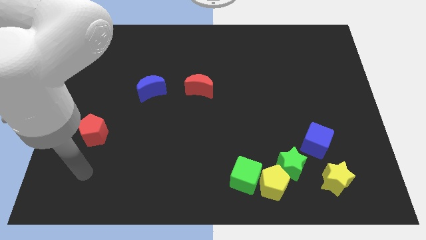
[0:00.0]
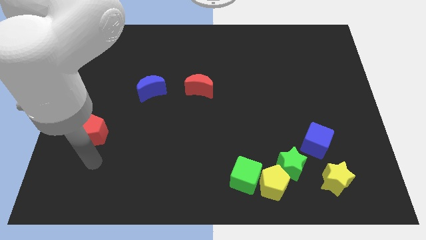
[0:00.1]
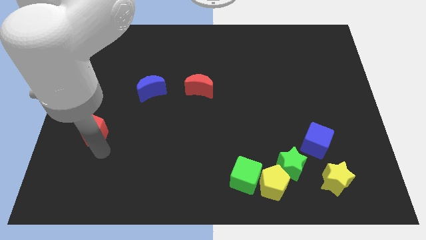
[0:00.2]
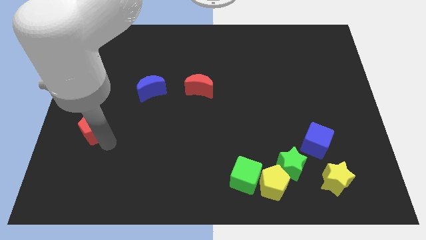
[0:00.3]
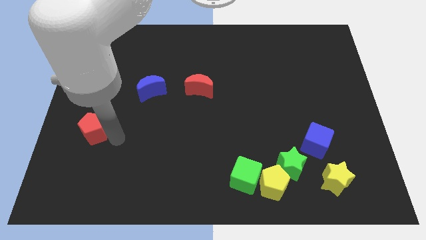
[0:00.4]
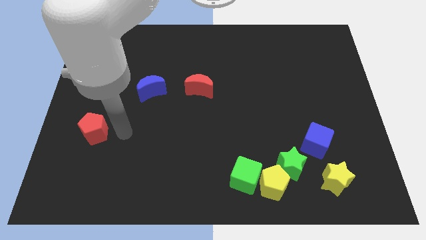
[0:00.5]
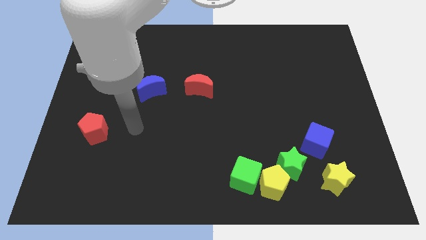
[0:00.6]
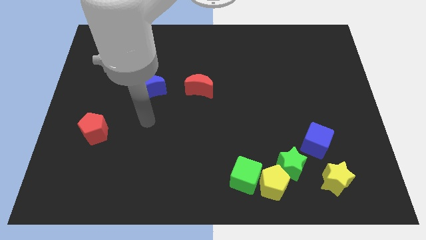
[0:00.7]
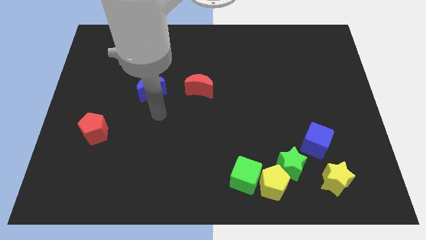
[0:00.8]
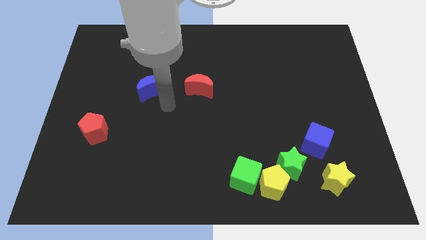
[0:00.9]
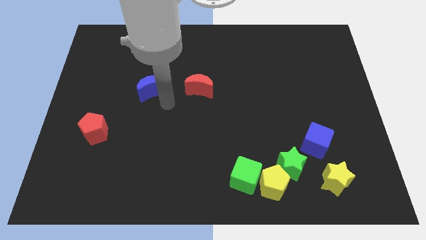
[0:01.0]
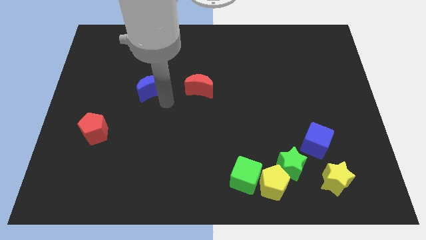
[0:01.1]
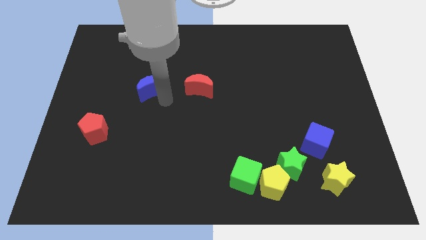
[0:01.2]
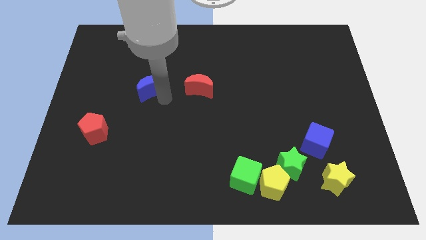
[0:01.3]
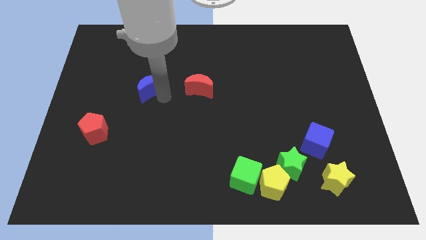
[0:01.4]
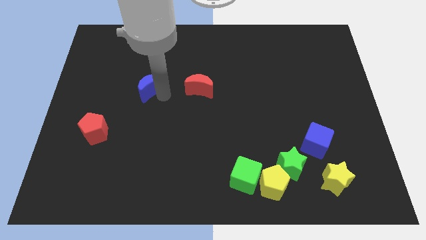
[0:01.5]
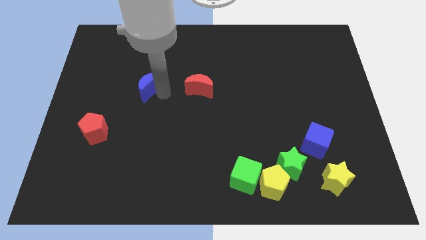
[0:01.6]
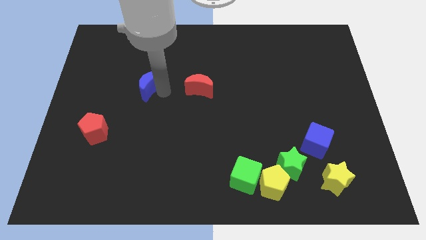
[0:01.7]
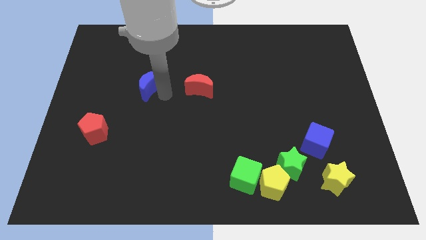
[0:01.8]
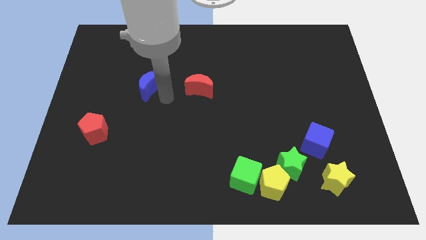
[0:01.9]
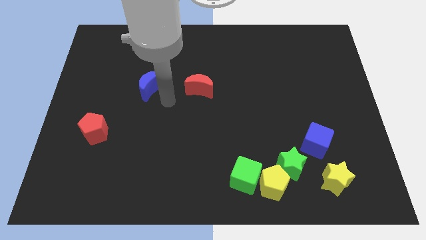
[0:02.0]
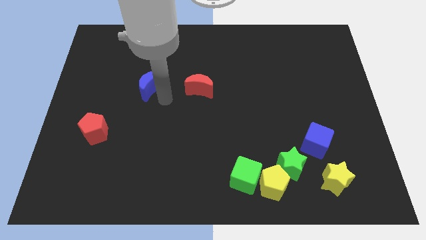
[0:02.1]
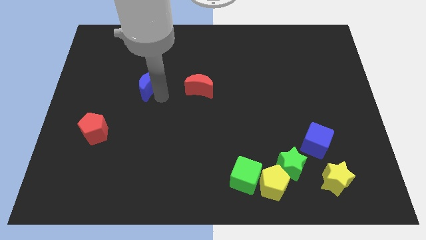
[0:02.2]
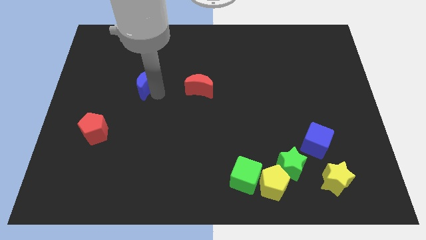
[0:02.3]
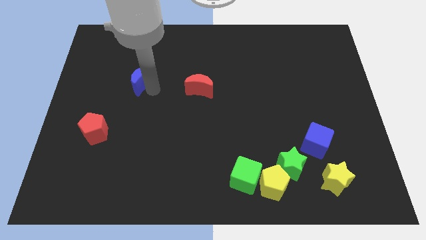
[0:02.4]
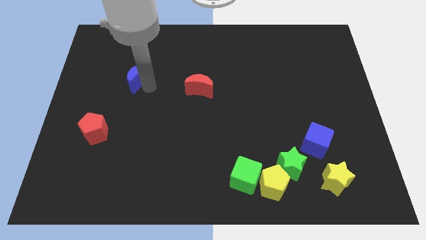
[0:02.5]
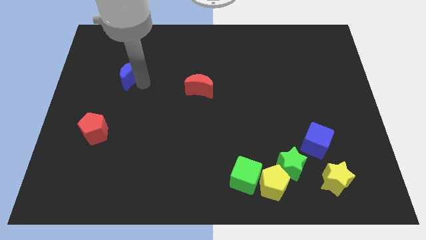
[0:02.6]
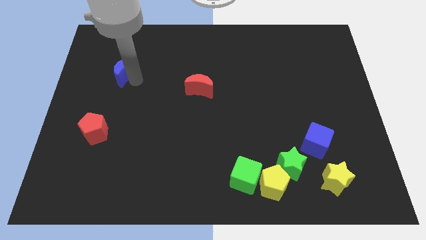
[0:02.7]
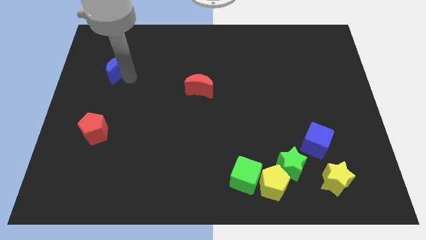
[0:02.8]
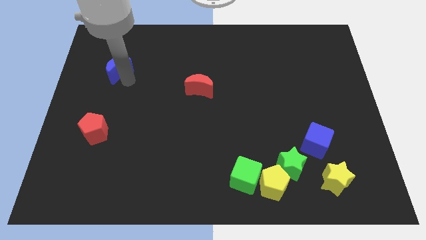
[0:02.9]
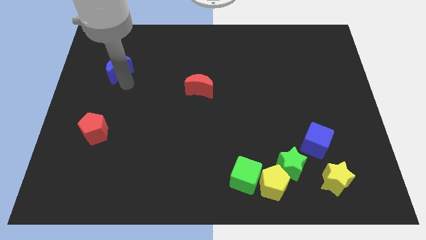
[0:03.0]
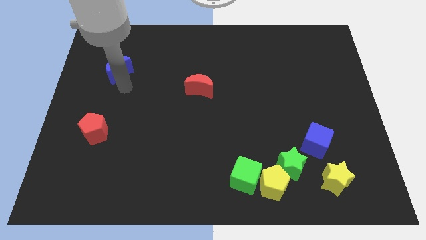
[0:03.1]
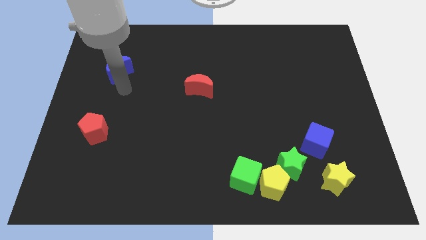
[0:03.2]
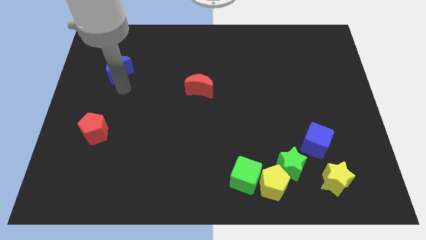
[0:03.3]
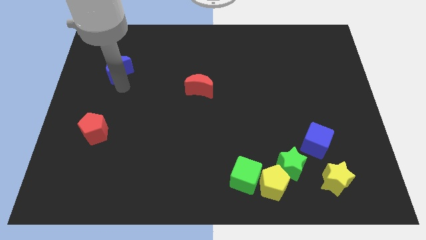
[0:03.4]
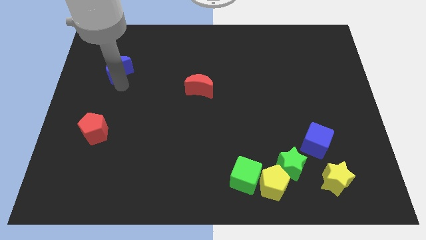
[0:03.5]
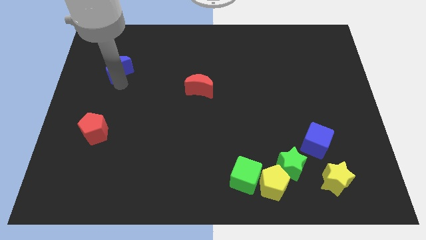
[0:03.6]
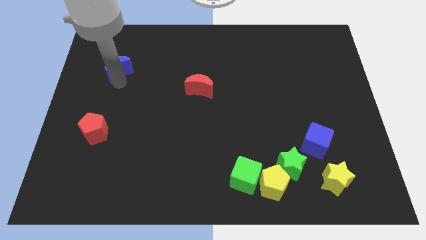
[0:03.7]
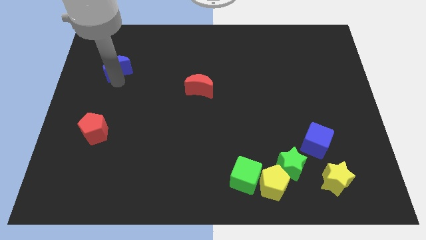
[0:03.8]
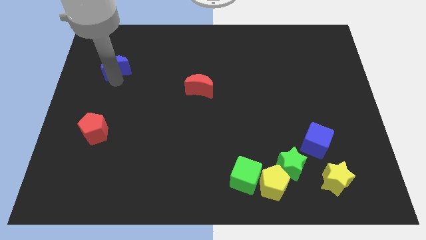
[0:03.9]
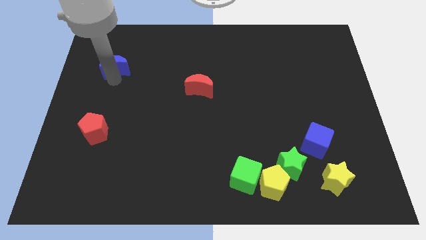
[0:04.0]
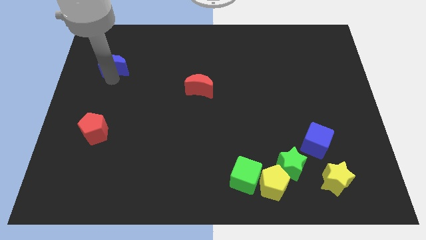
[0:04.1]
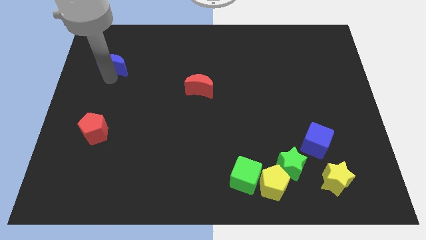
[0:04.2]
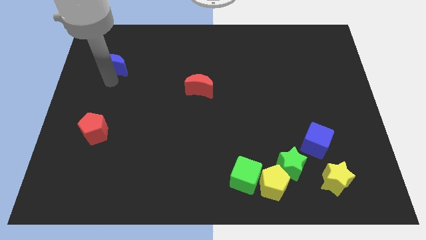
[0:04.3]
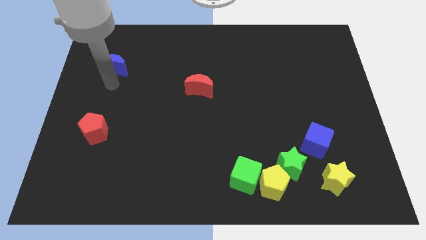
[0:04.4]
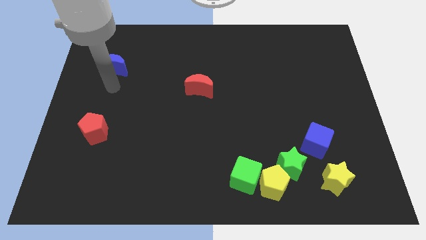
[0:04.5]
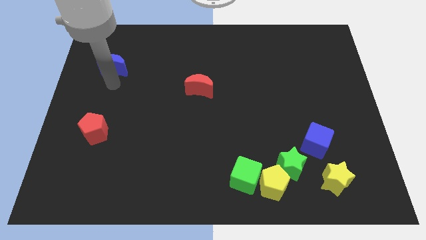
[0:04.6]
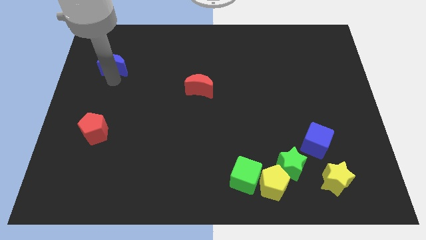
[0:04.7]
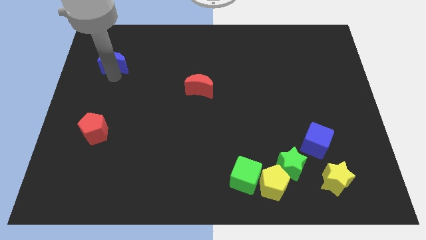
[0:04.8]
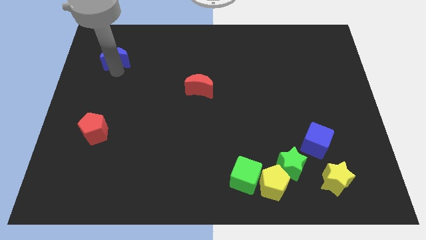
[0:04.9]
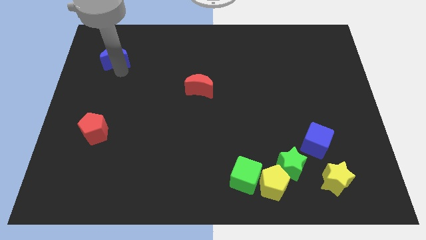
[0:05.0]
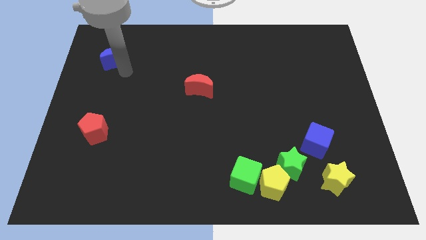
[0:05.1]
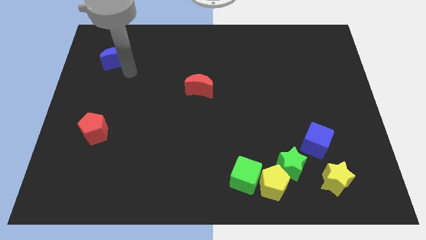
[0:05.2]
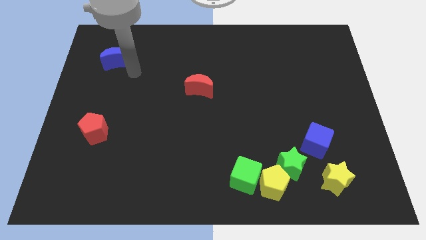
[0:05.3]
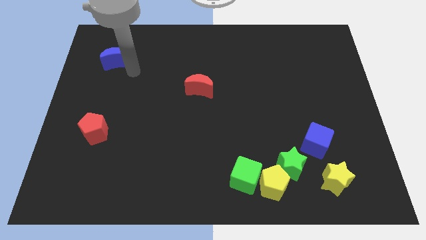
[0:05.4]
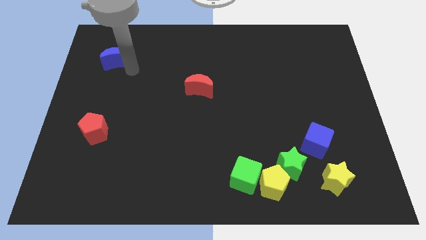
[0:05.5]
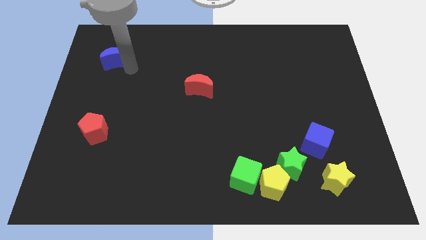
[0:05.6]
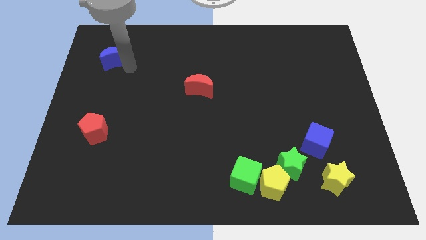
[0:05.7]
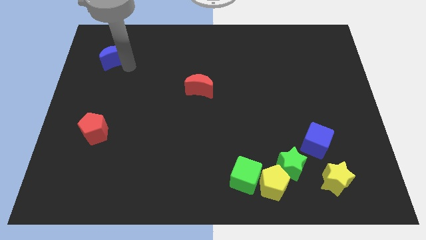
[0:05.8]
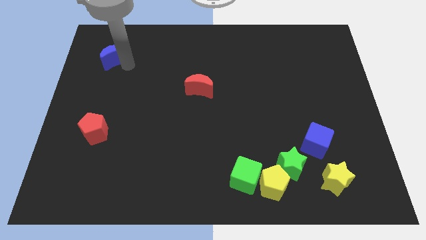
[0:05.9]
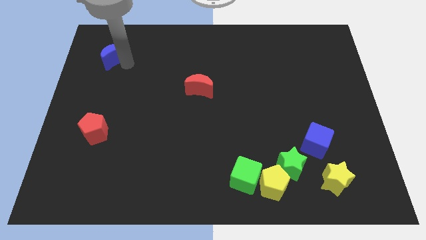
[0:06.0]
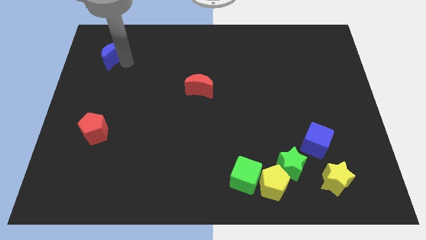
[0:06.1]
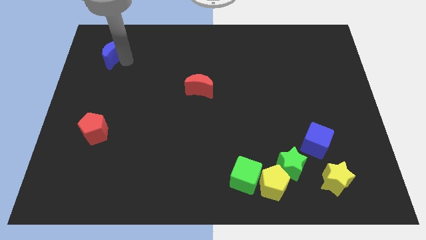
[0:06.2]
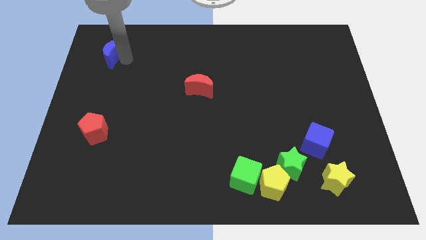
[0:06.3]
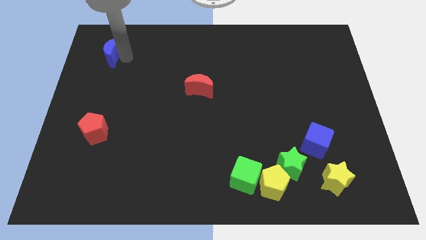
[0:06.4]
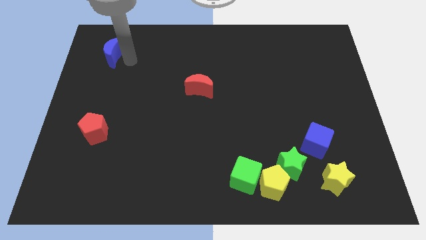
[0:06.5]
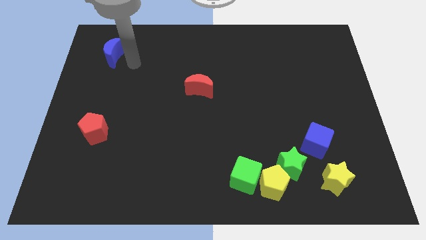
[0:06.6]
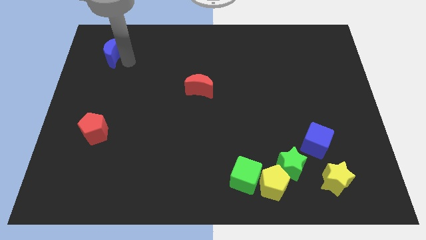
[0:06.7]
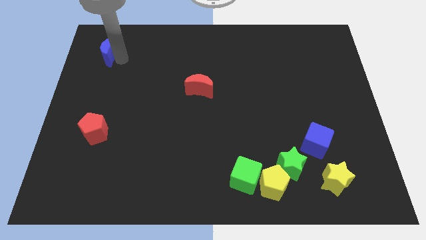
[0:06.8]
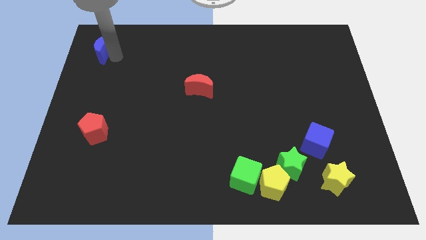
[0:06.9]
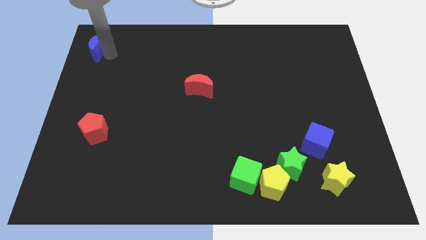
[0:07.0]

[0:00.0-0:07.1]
move the blue moon to the top left of the board
